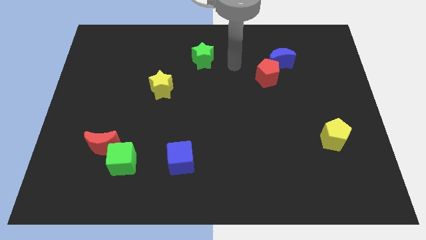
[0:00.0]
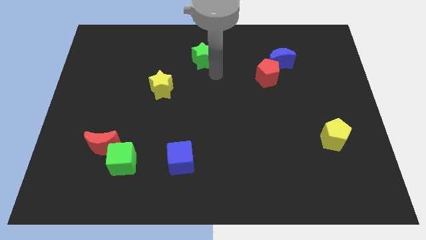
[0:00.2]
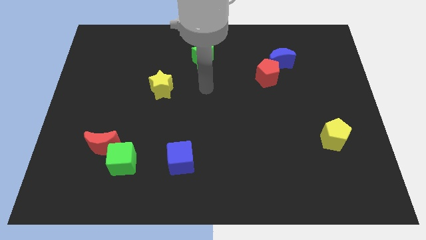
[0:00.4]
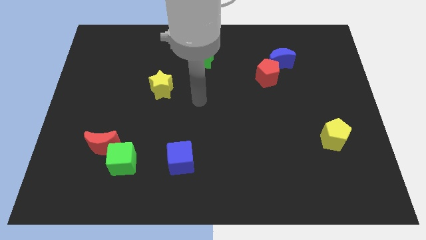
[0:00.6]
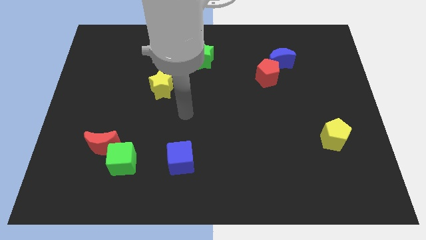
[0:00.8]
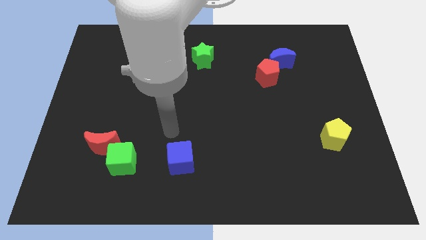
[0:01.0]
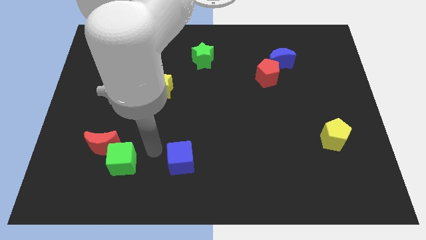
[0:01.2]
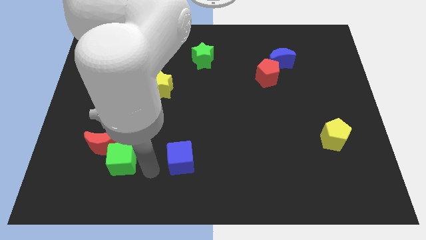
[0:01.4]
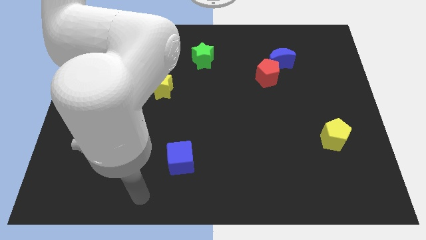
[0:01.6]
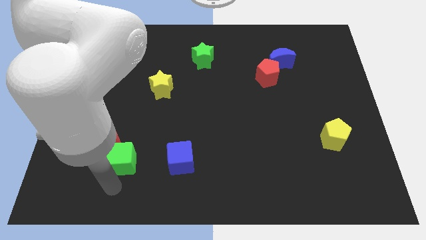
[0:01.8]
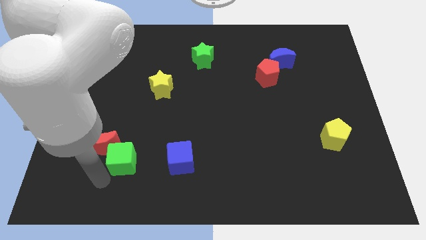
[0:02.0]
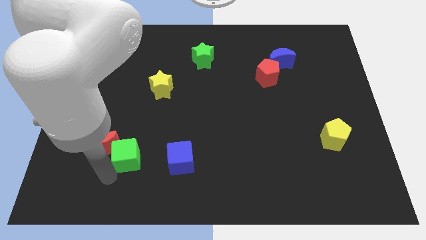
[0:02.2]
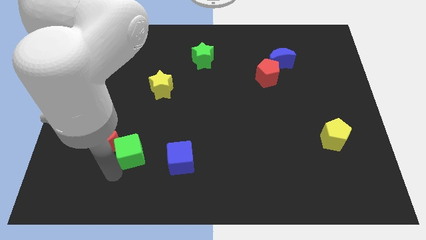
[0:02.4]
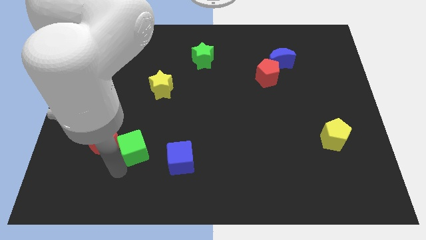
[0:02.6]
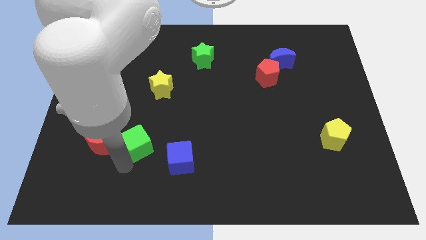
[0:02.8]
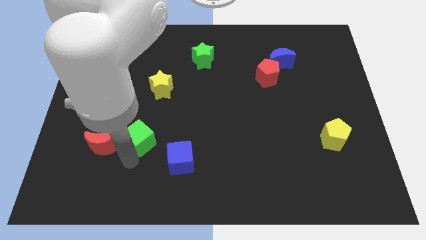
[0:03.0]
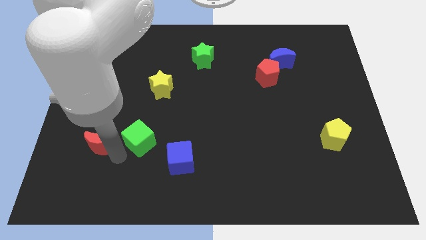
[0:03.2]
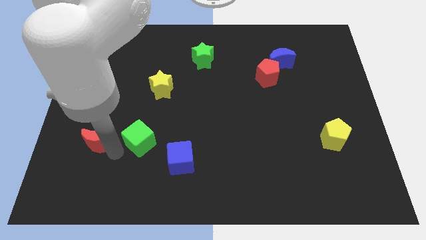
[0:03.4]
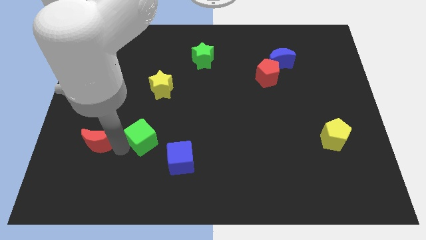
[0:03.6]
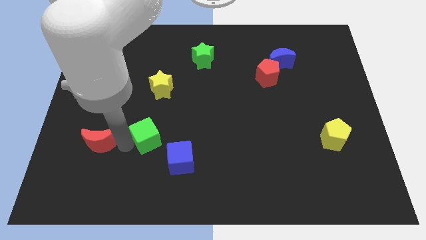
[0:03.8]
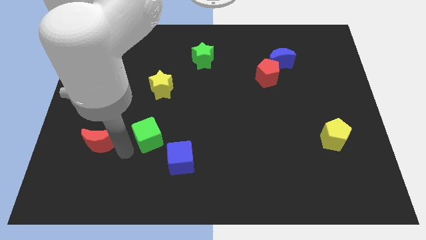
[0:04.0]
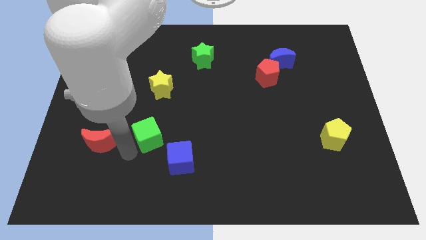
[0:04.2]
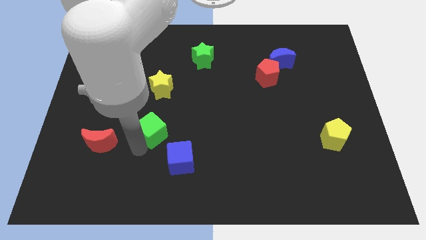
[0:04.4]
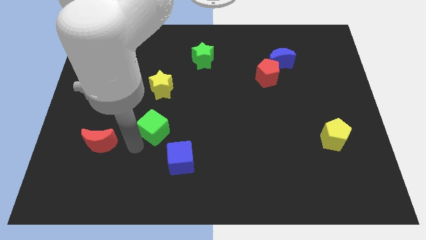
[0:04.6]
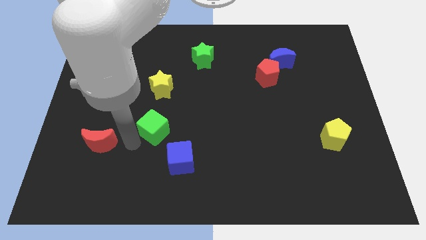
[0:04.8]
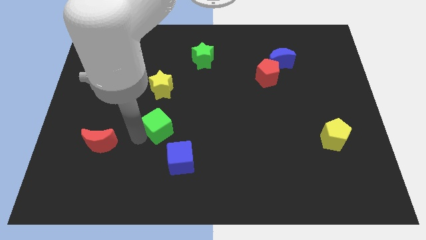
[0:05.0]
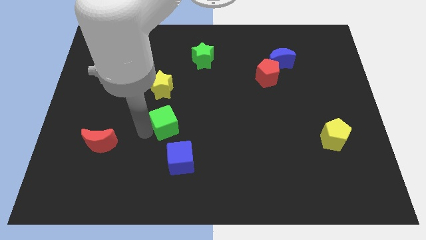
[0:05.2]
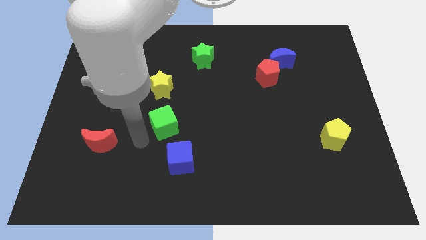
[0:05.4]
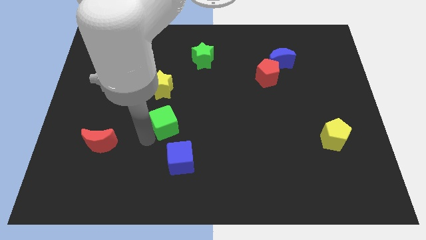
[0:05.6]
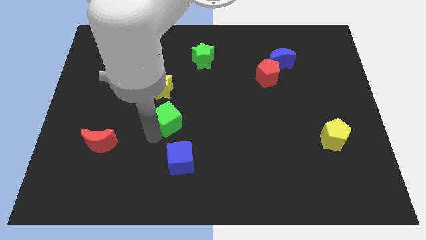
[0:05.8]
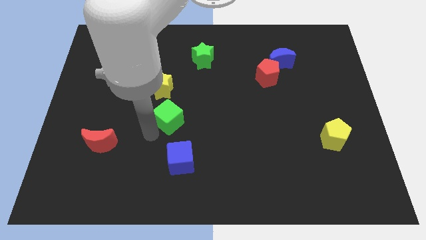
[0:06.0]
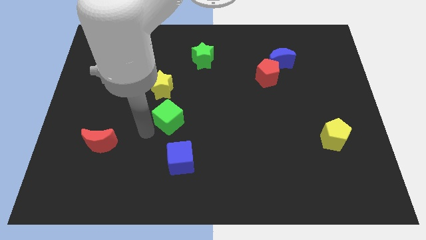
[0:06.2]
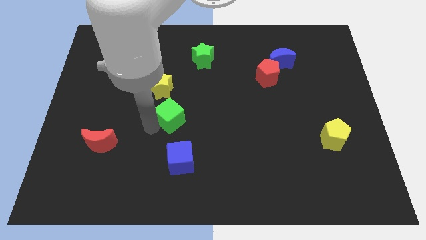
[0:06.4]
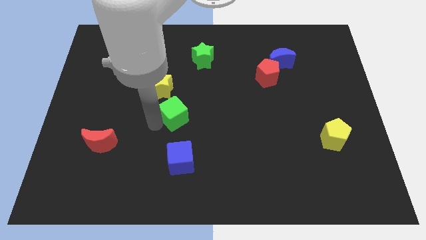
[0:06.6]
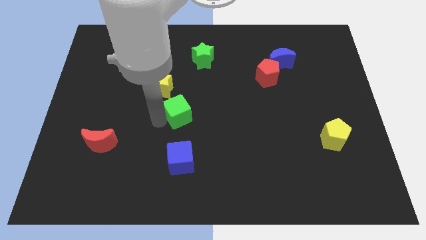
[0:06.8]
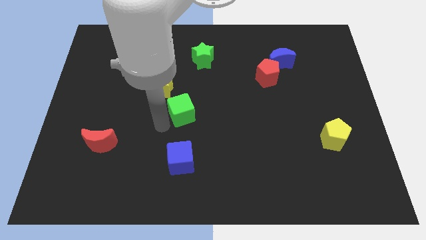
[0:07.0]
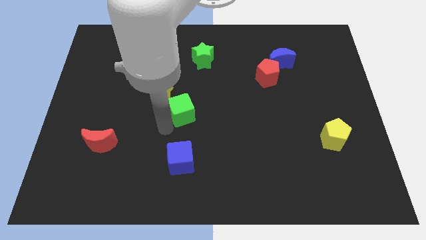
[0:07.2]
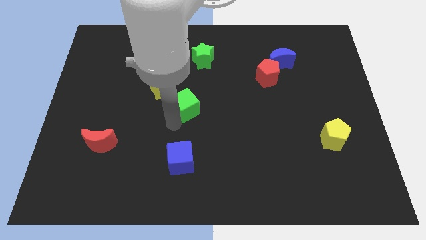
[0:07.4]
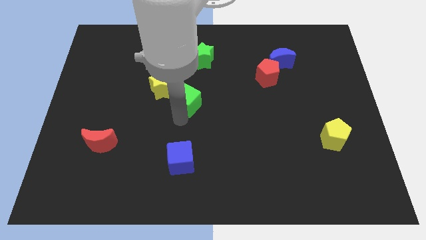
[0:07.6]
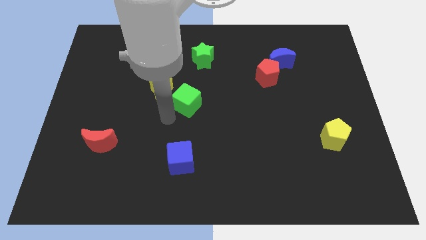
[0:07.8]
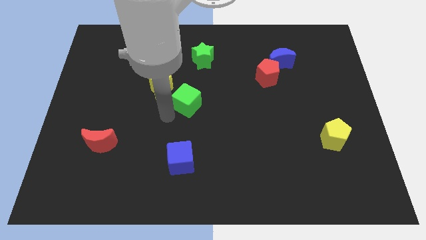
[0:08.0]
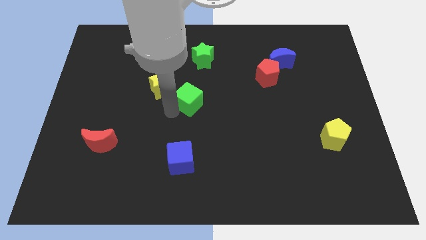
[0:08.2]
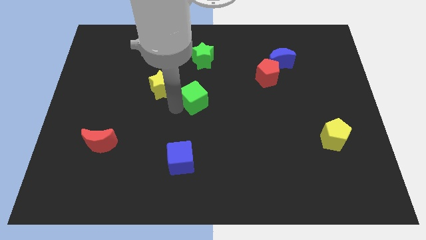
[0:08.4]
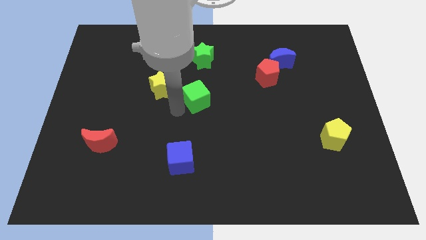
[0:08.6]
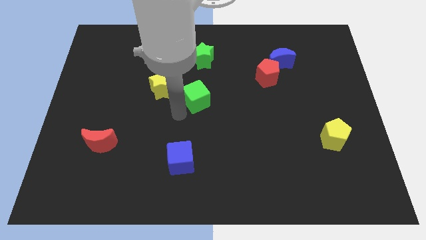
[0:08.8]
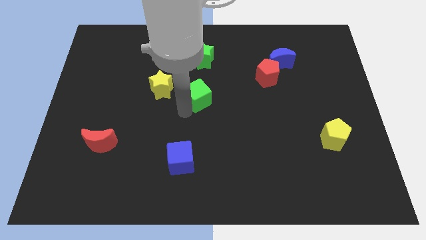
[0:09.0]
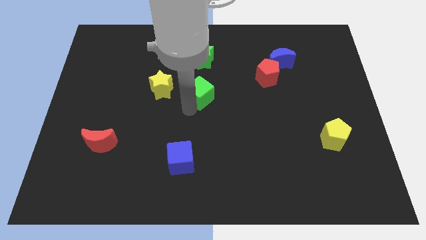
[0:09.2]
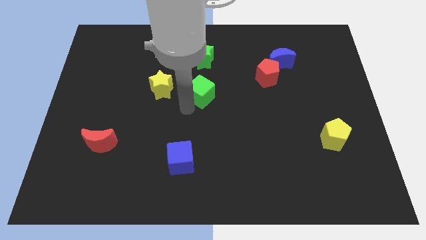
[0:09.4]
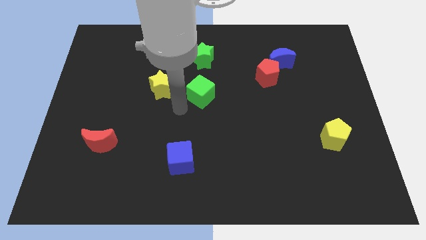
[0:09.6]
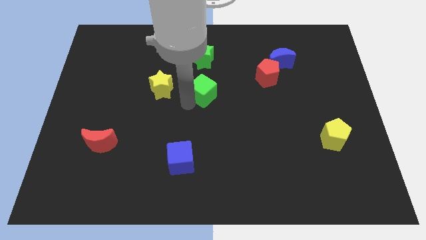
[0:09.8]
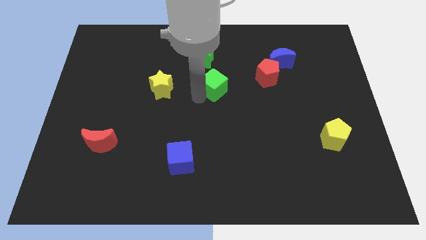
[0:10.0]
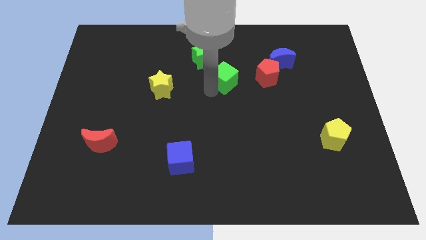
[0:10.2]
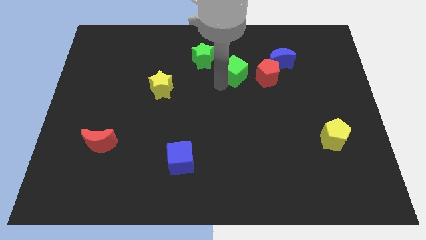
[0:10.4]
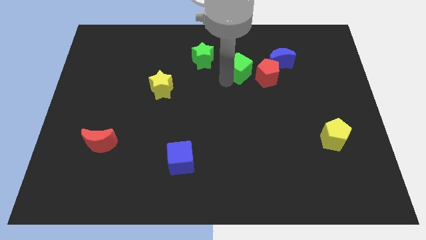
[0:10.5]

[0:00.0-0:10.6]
put the green cube diagonally up and to the left of the red pentagon

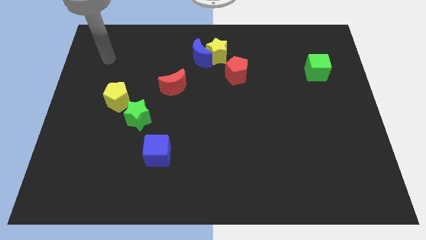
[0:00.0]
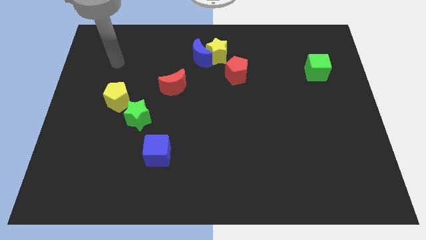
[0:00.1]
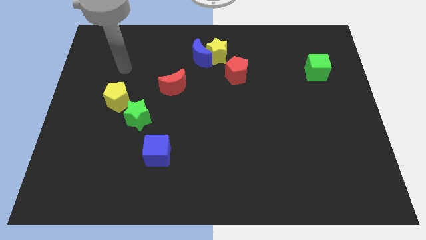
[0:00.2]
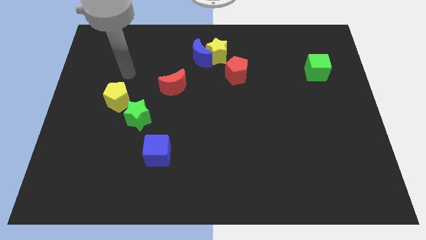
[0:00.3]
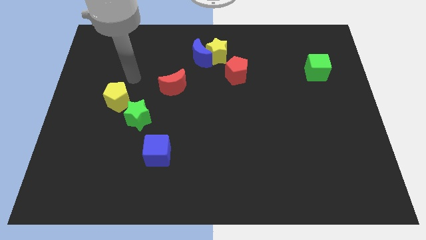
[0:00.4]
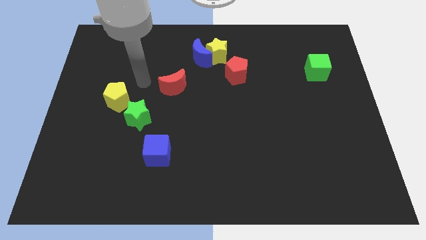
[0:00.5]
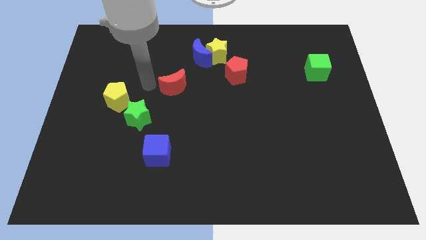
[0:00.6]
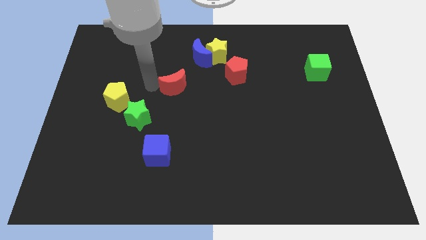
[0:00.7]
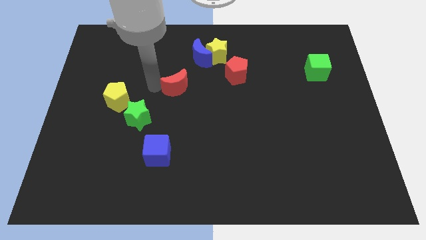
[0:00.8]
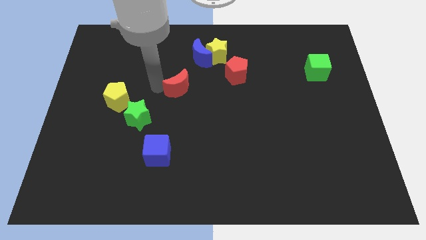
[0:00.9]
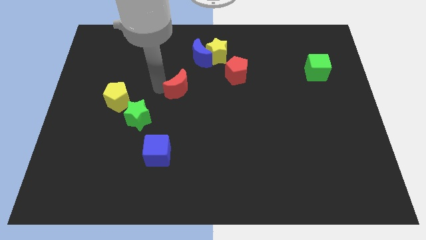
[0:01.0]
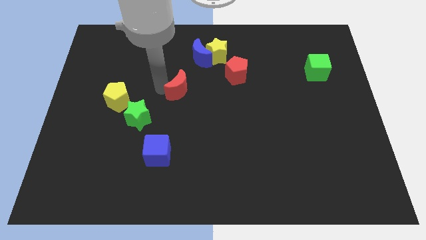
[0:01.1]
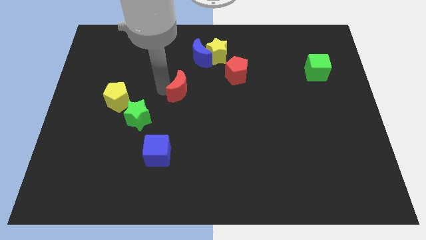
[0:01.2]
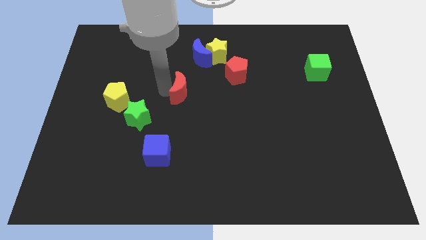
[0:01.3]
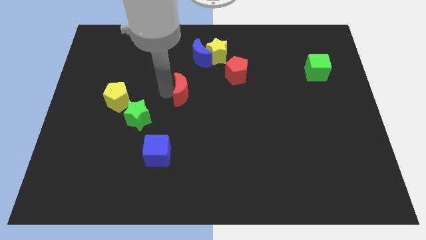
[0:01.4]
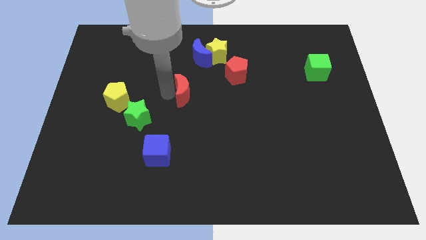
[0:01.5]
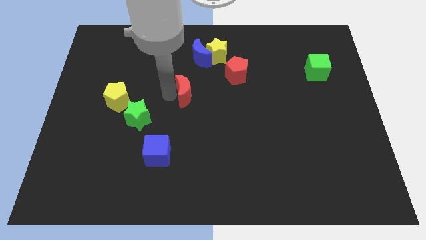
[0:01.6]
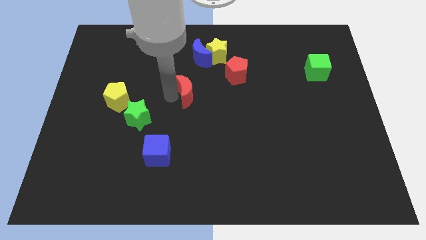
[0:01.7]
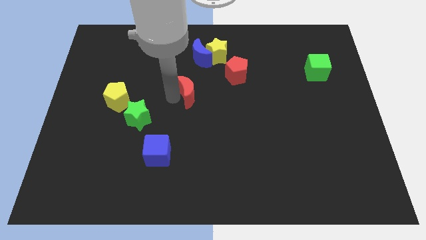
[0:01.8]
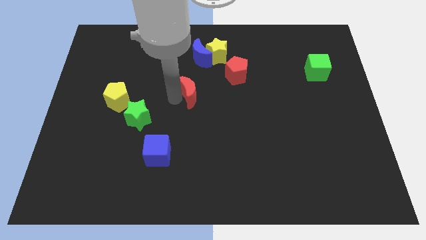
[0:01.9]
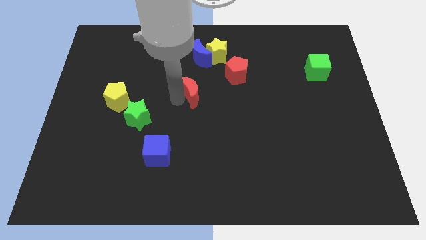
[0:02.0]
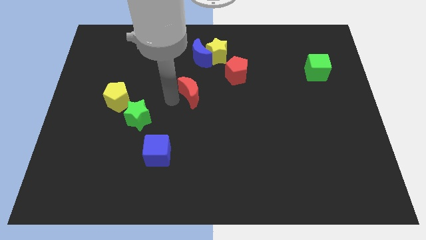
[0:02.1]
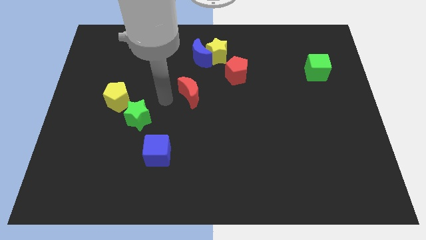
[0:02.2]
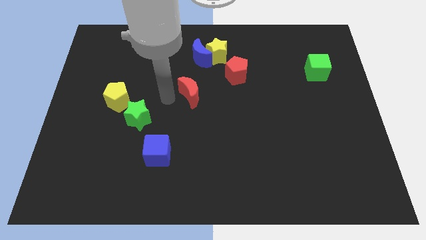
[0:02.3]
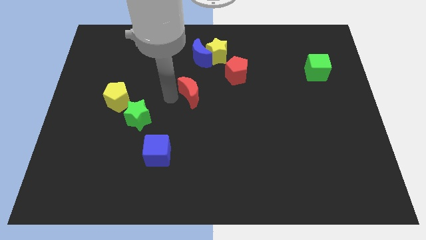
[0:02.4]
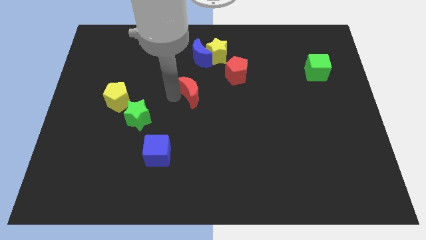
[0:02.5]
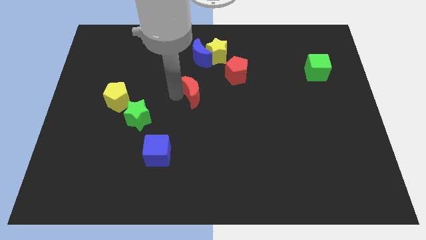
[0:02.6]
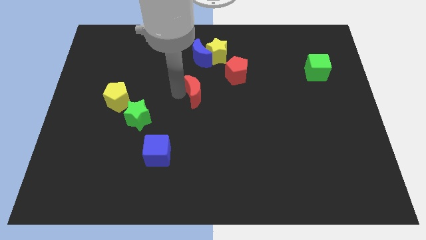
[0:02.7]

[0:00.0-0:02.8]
slide the red moon to the bottom left of the red pentagon
